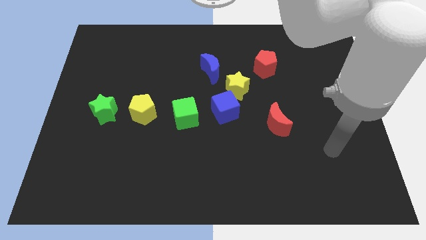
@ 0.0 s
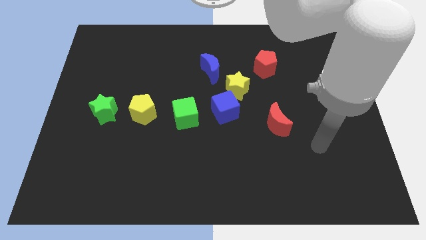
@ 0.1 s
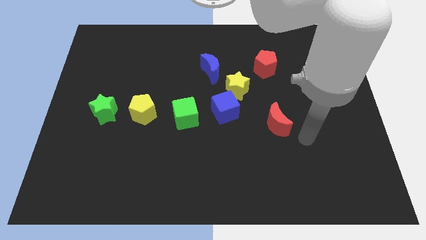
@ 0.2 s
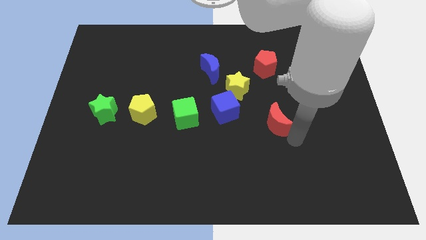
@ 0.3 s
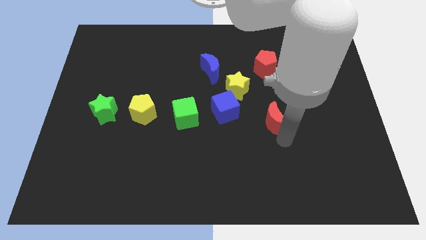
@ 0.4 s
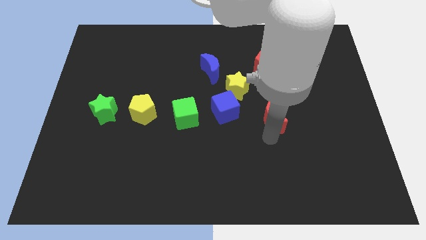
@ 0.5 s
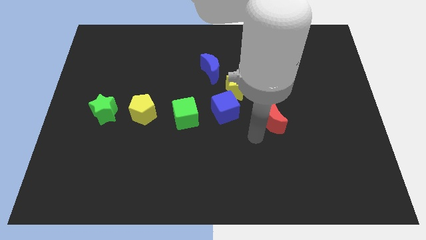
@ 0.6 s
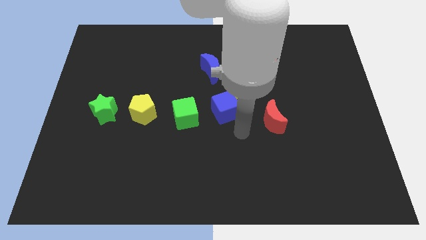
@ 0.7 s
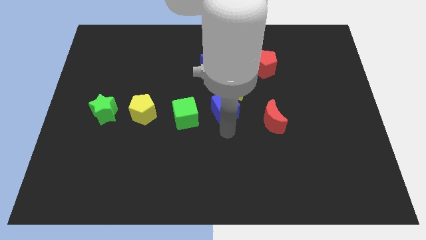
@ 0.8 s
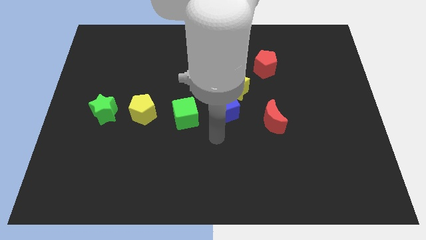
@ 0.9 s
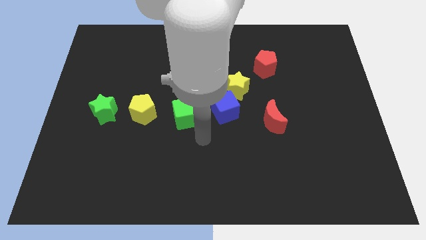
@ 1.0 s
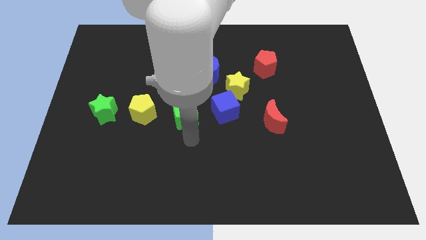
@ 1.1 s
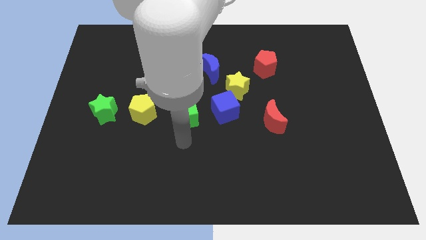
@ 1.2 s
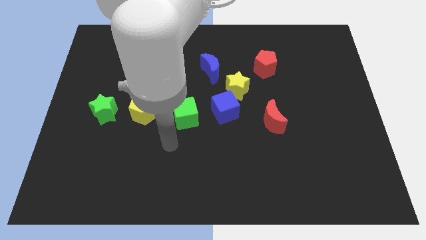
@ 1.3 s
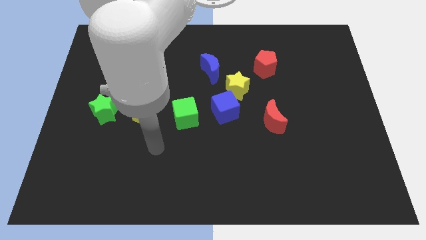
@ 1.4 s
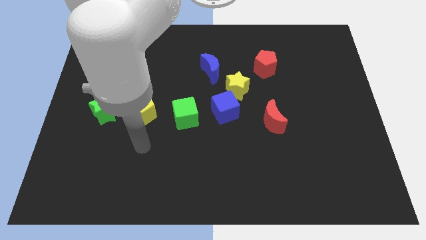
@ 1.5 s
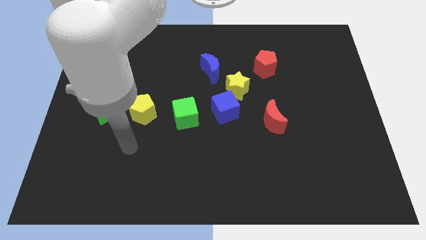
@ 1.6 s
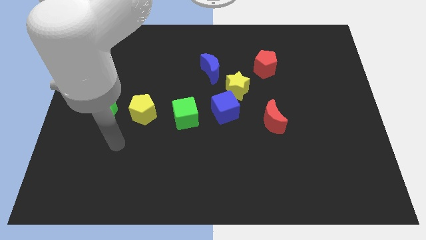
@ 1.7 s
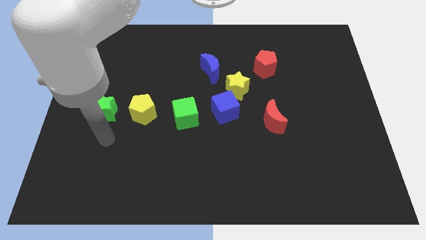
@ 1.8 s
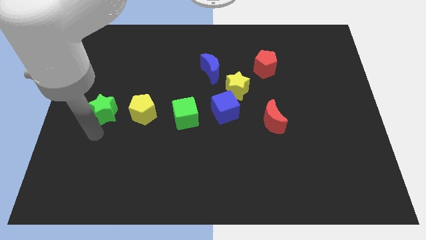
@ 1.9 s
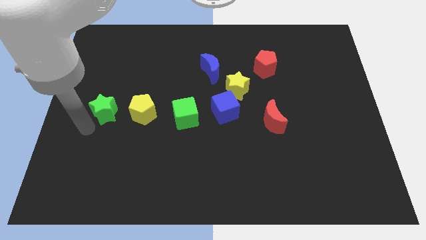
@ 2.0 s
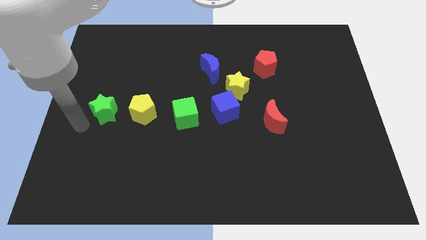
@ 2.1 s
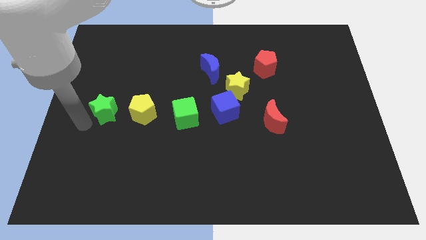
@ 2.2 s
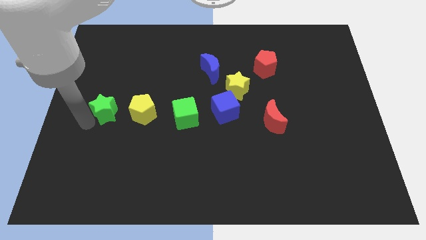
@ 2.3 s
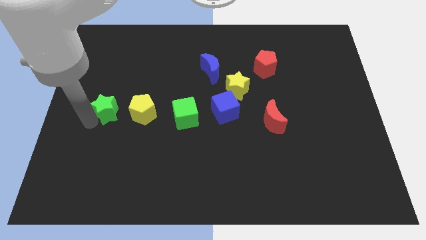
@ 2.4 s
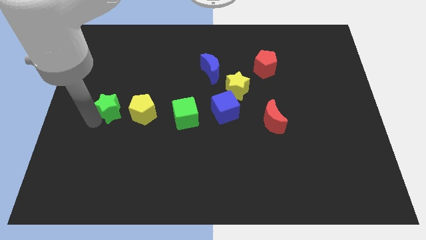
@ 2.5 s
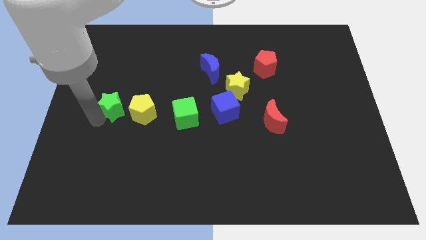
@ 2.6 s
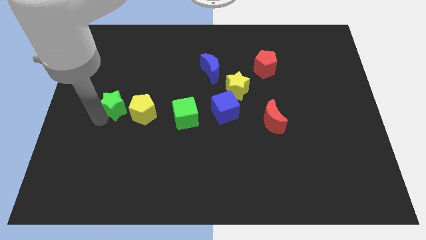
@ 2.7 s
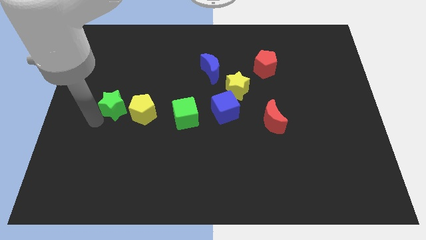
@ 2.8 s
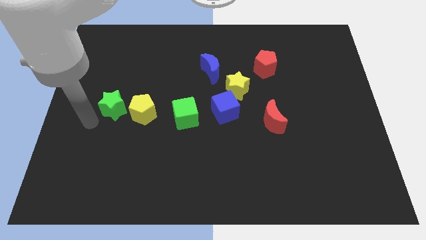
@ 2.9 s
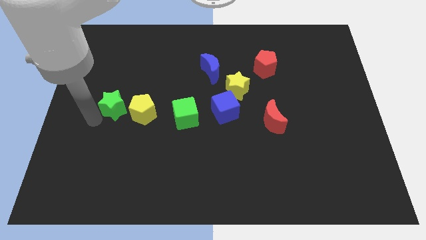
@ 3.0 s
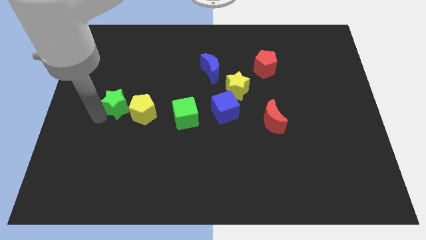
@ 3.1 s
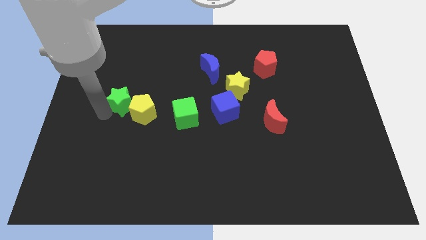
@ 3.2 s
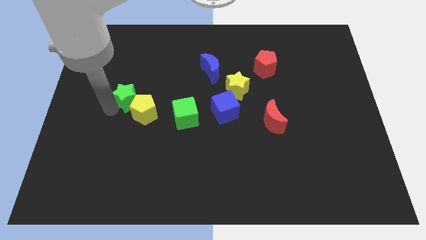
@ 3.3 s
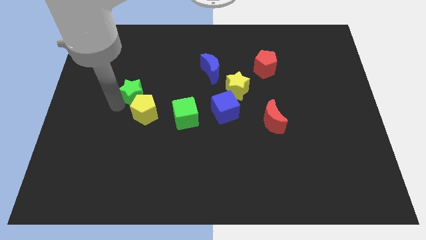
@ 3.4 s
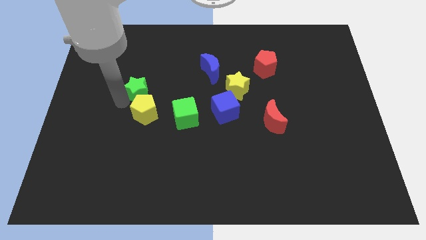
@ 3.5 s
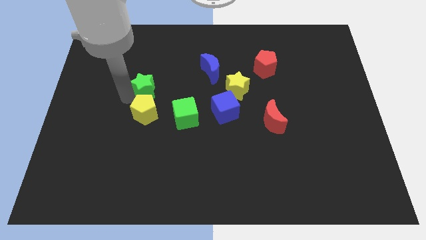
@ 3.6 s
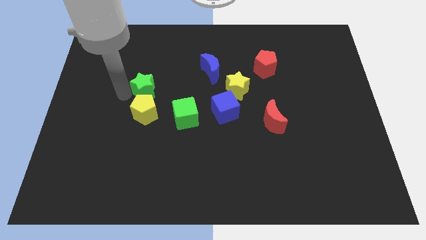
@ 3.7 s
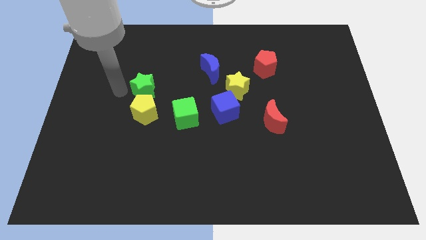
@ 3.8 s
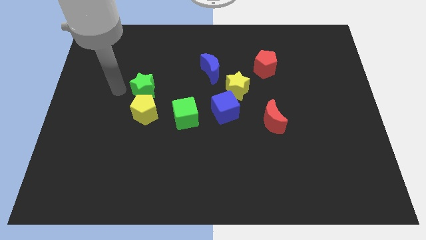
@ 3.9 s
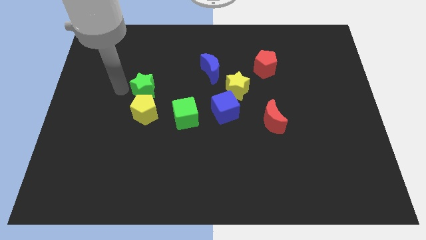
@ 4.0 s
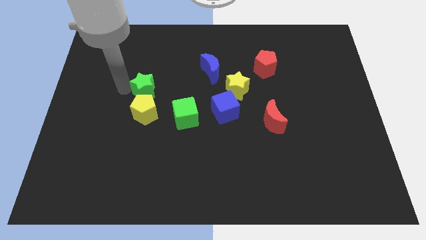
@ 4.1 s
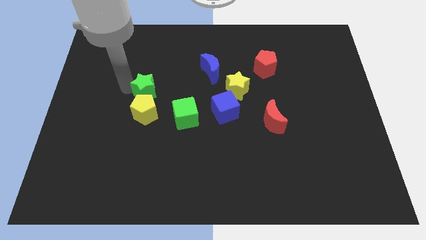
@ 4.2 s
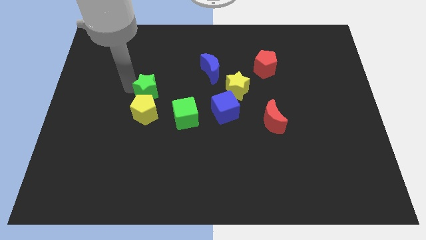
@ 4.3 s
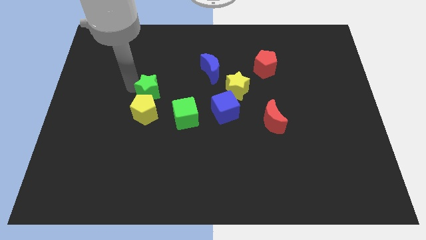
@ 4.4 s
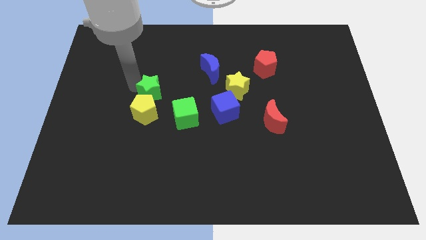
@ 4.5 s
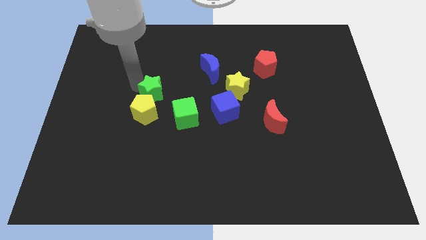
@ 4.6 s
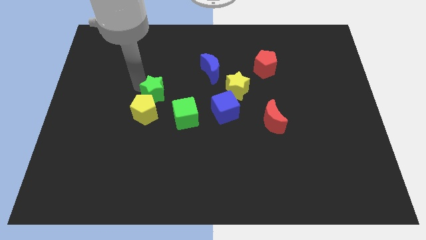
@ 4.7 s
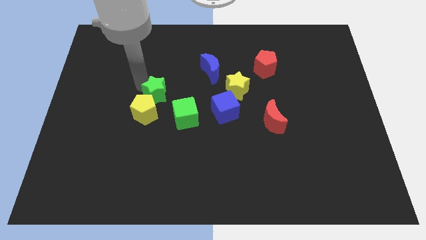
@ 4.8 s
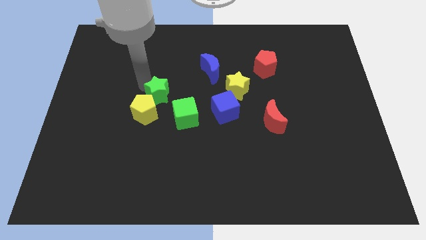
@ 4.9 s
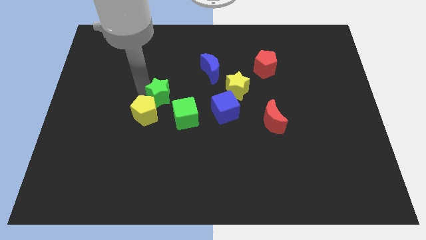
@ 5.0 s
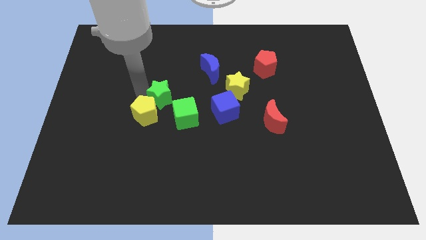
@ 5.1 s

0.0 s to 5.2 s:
push the green star to the center of the board

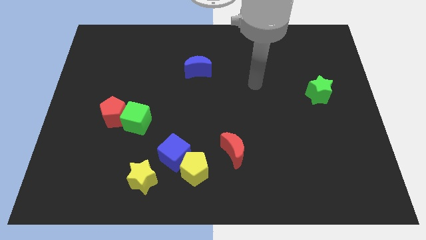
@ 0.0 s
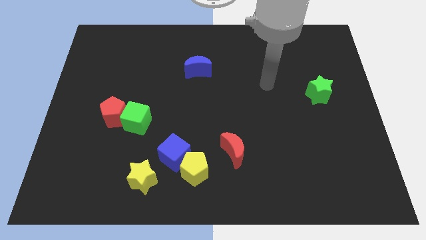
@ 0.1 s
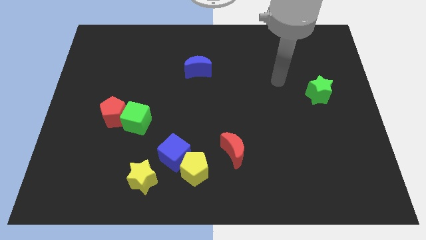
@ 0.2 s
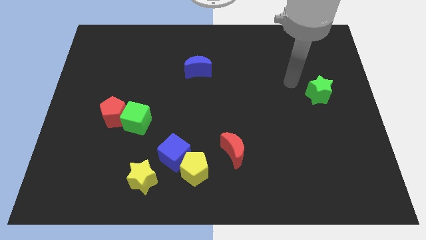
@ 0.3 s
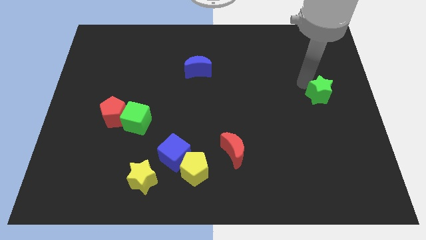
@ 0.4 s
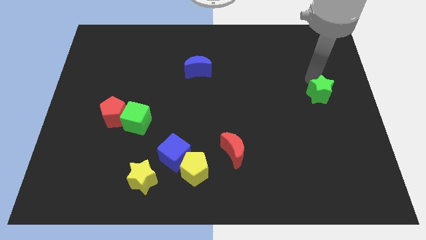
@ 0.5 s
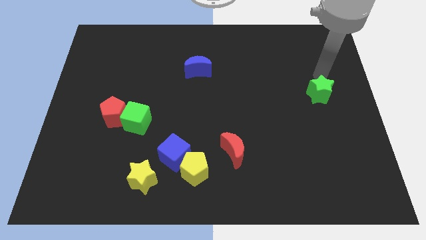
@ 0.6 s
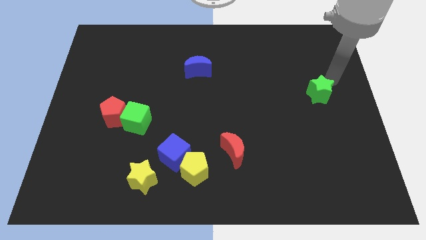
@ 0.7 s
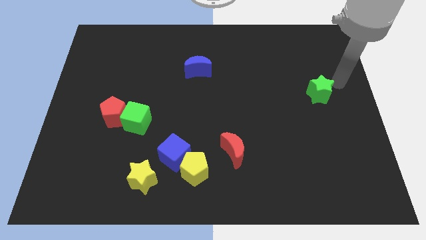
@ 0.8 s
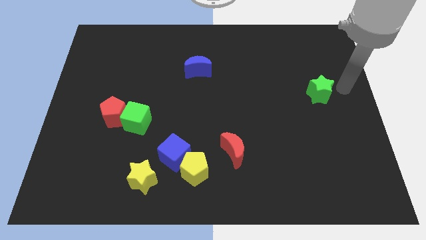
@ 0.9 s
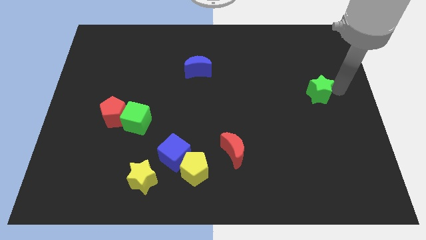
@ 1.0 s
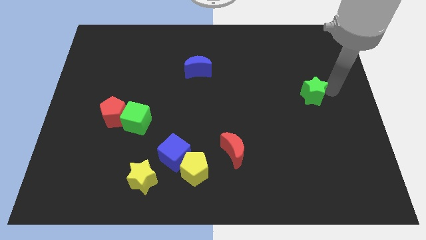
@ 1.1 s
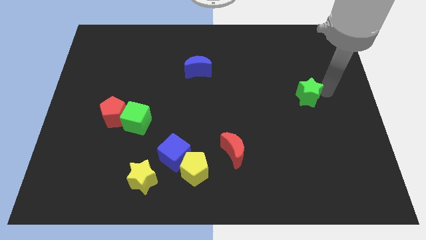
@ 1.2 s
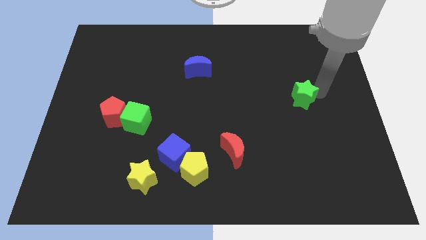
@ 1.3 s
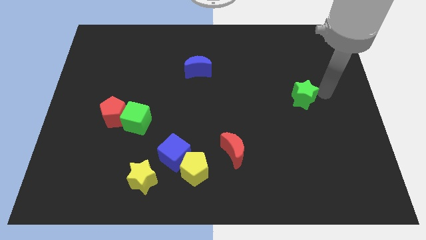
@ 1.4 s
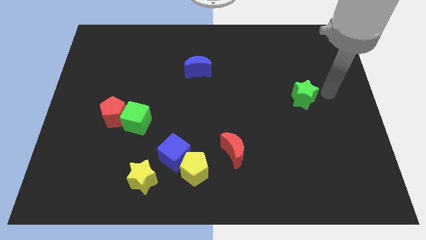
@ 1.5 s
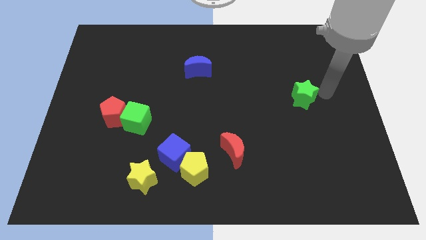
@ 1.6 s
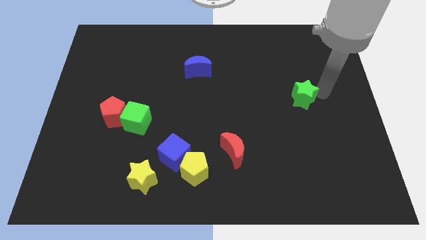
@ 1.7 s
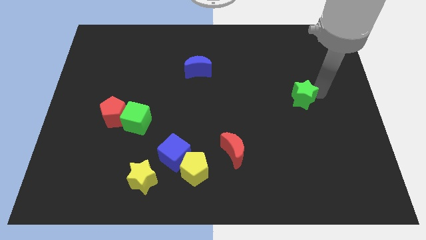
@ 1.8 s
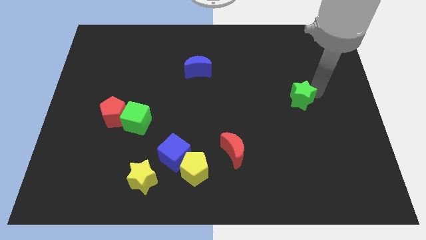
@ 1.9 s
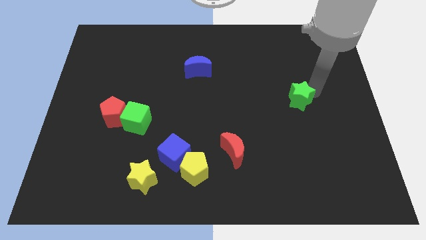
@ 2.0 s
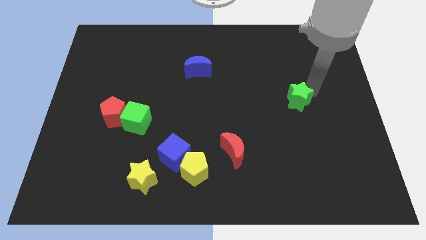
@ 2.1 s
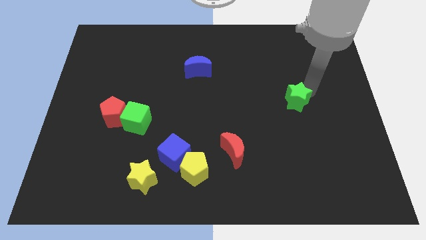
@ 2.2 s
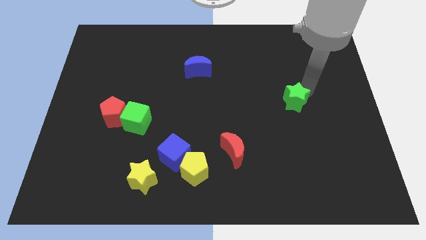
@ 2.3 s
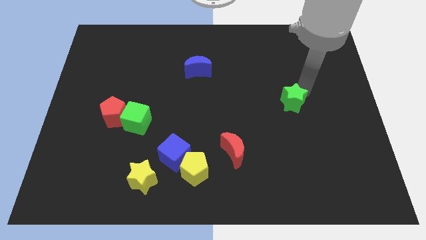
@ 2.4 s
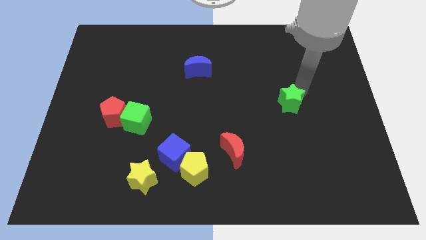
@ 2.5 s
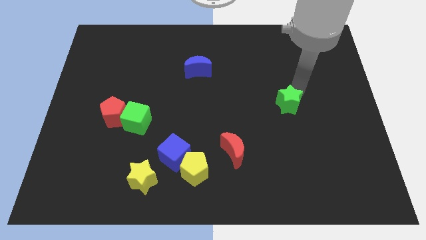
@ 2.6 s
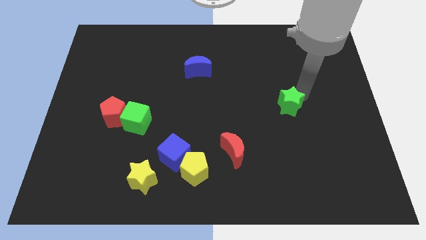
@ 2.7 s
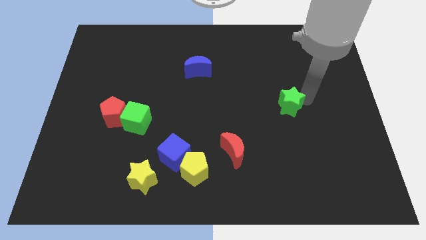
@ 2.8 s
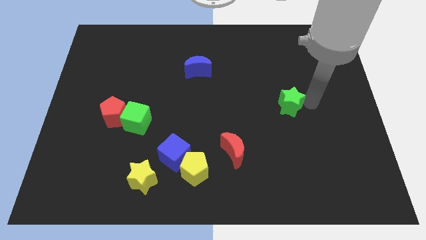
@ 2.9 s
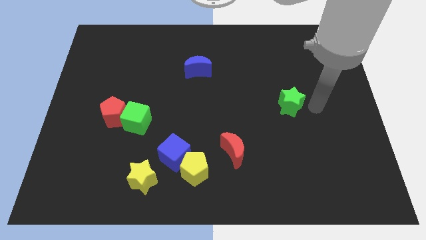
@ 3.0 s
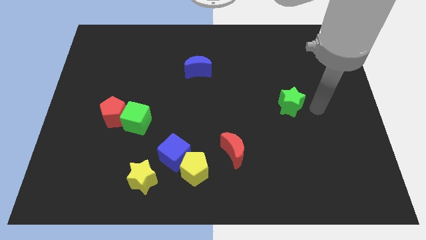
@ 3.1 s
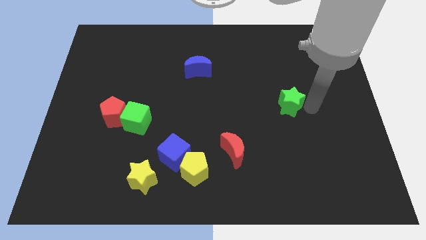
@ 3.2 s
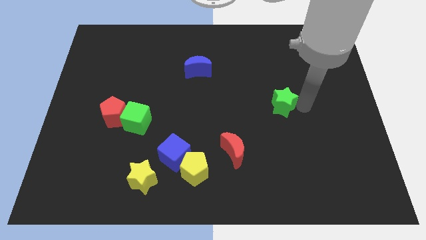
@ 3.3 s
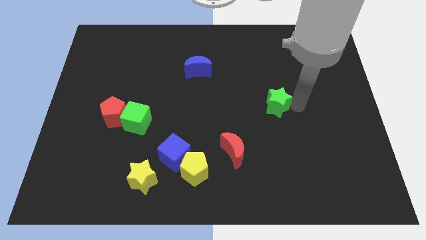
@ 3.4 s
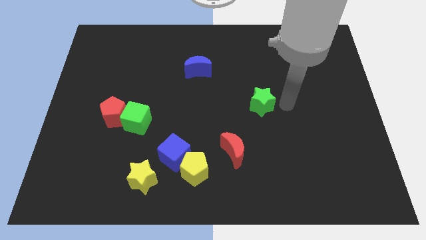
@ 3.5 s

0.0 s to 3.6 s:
push the green star to the center
